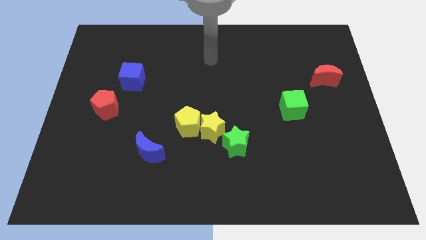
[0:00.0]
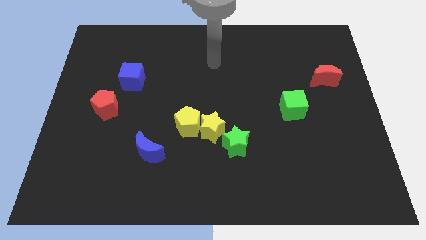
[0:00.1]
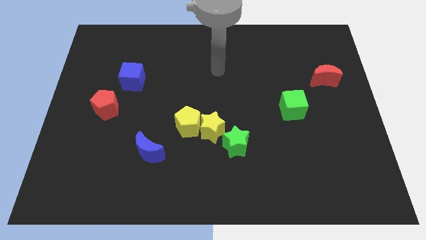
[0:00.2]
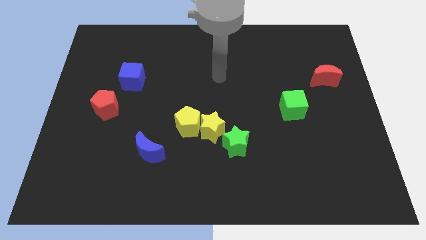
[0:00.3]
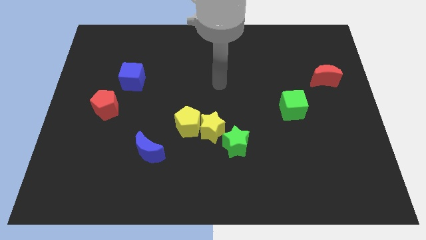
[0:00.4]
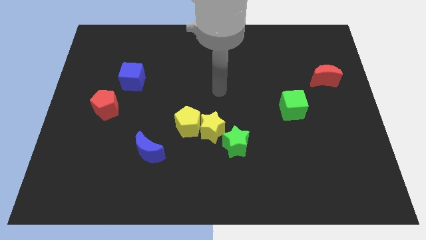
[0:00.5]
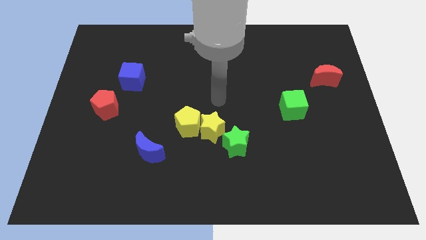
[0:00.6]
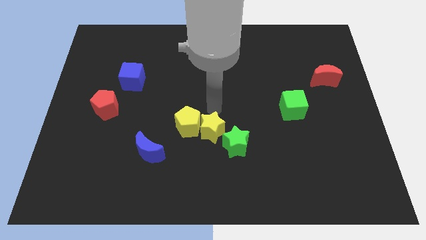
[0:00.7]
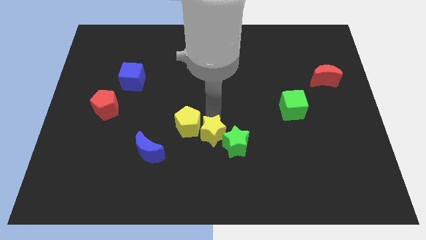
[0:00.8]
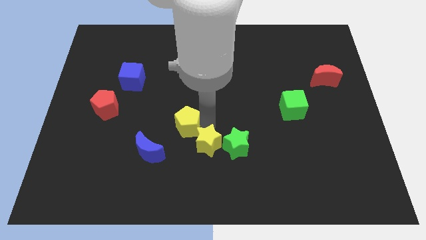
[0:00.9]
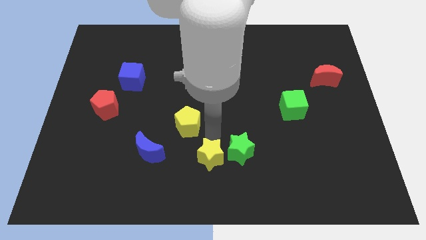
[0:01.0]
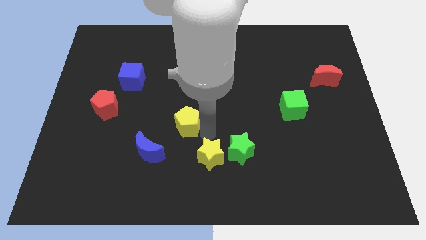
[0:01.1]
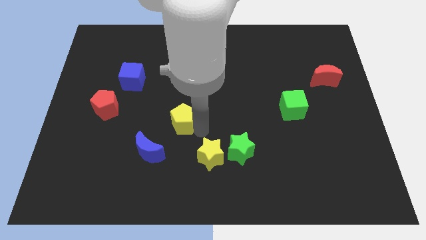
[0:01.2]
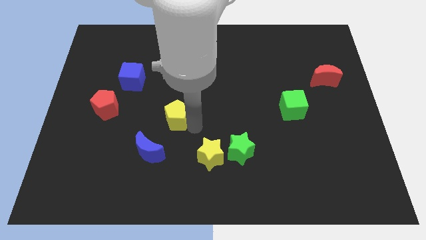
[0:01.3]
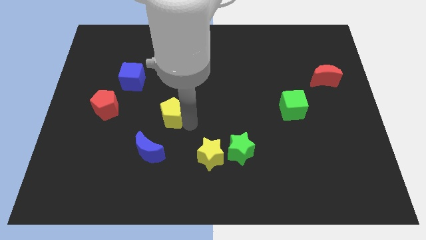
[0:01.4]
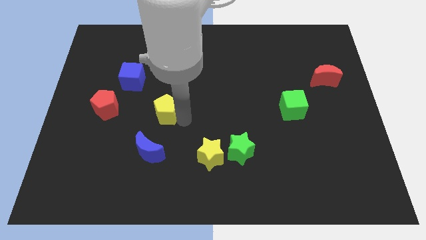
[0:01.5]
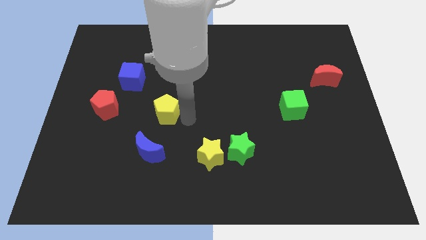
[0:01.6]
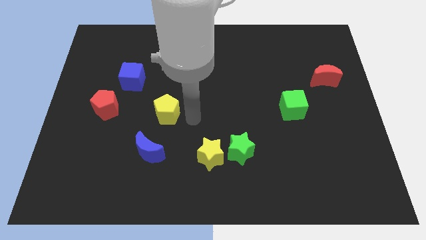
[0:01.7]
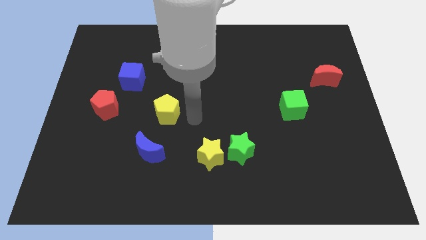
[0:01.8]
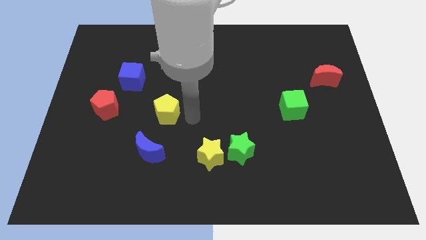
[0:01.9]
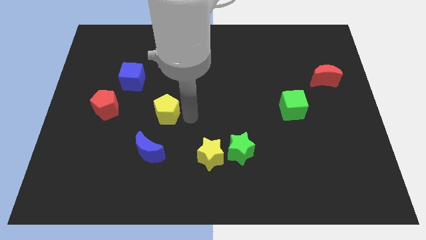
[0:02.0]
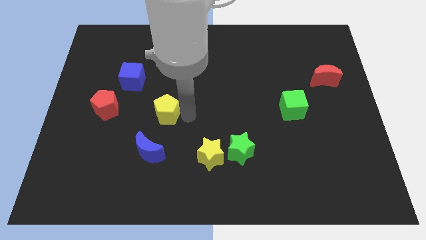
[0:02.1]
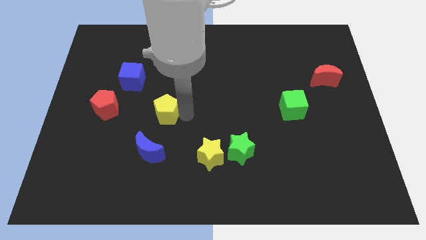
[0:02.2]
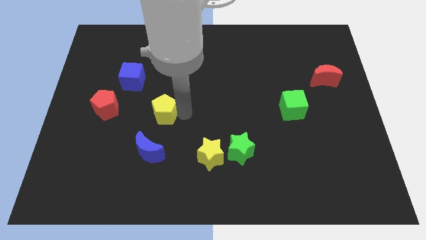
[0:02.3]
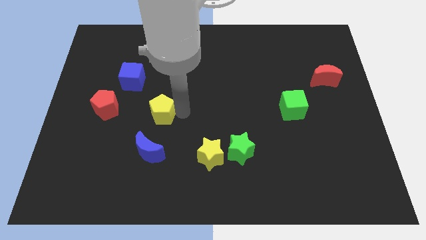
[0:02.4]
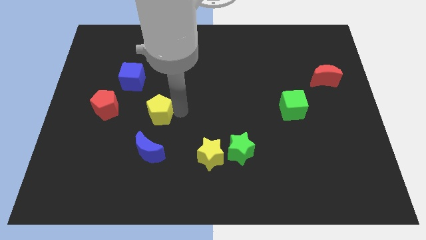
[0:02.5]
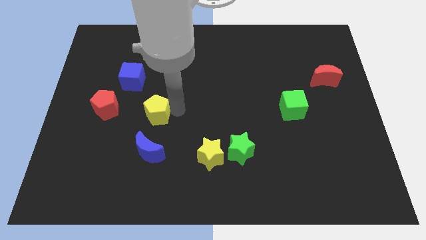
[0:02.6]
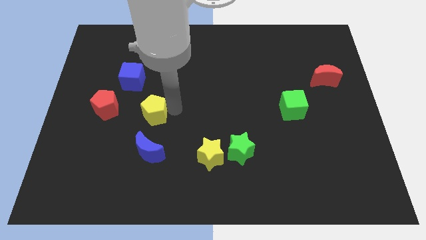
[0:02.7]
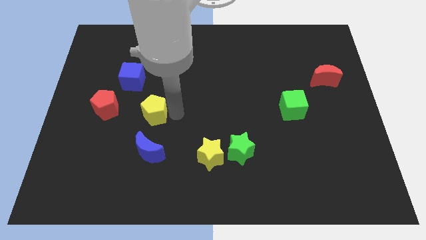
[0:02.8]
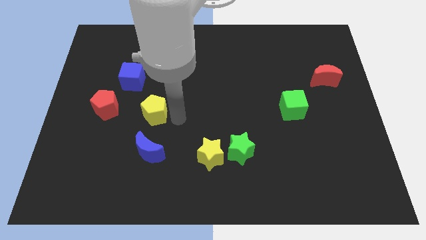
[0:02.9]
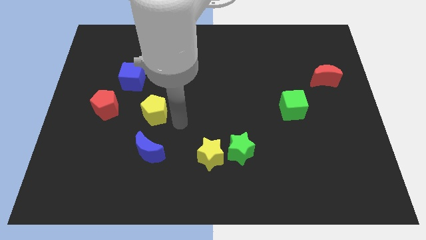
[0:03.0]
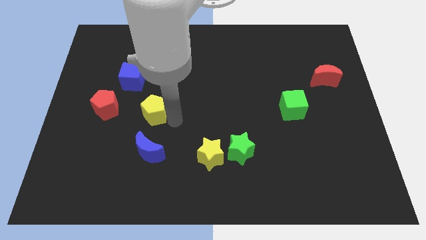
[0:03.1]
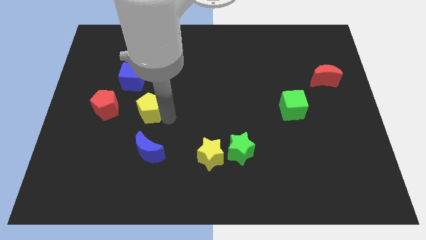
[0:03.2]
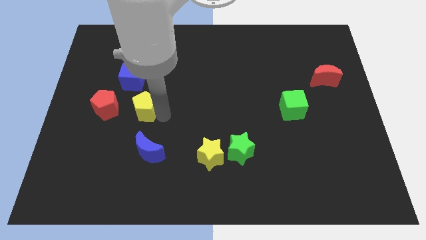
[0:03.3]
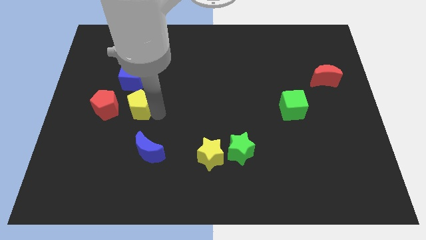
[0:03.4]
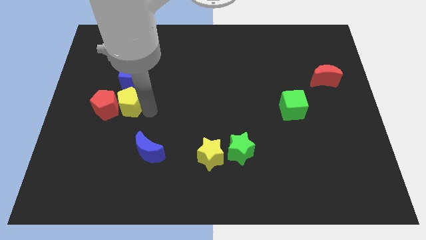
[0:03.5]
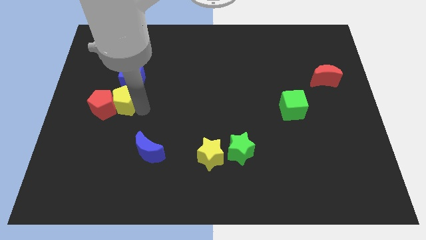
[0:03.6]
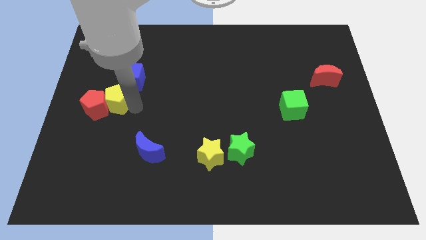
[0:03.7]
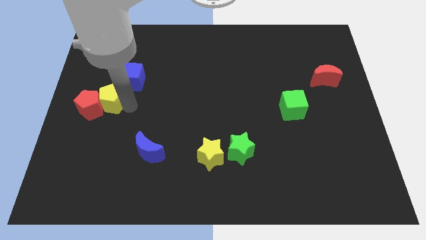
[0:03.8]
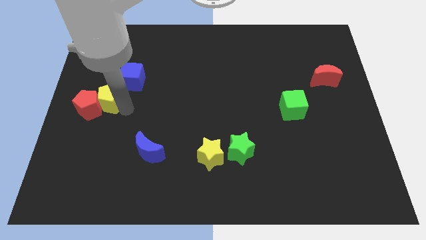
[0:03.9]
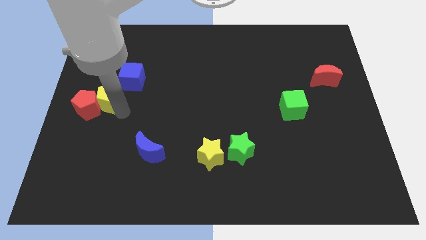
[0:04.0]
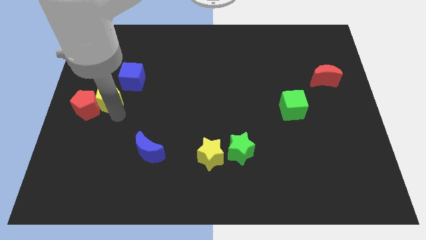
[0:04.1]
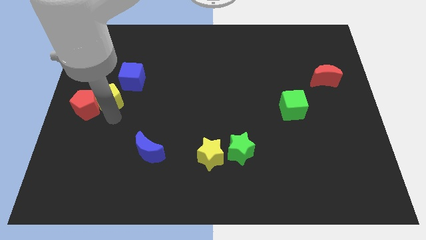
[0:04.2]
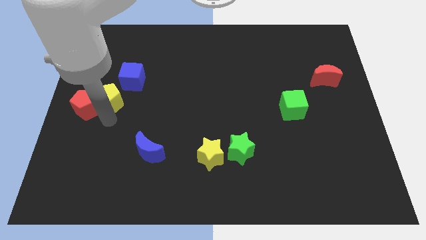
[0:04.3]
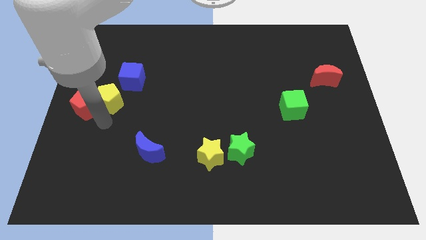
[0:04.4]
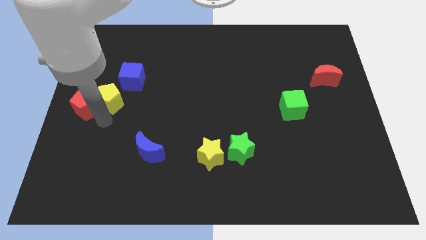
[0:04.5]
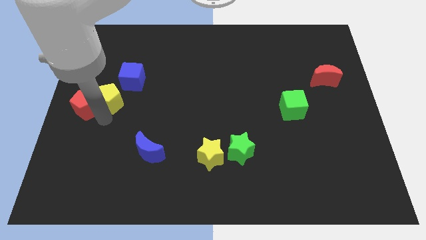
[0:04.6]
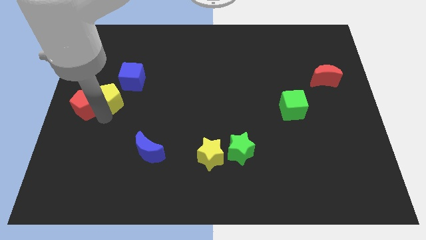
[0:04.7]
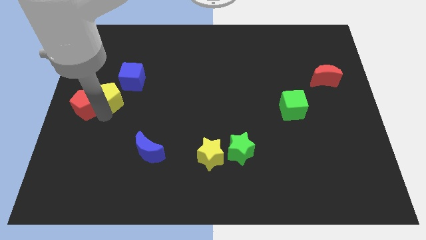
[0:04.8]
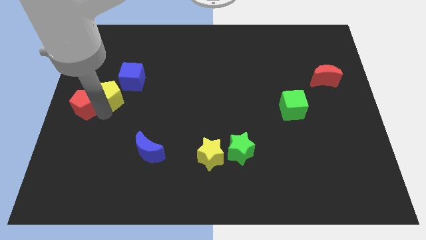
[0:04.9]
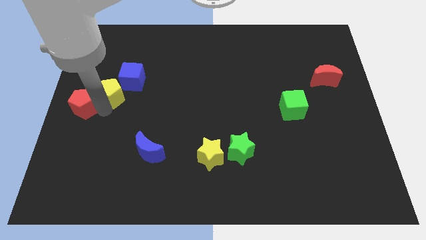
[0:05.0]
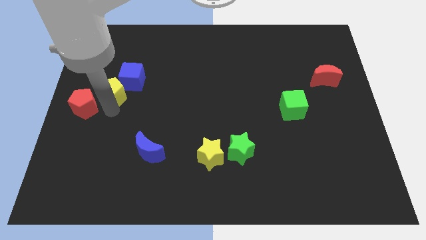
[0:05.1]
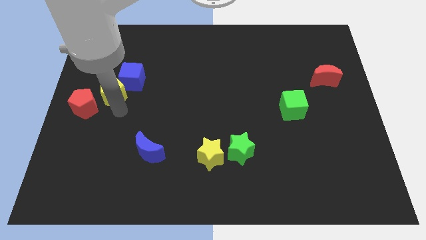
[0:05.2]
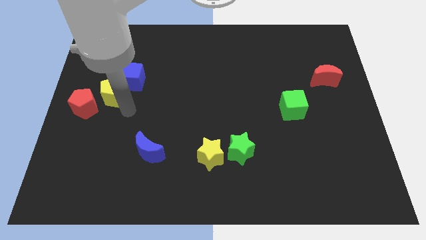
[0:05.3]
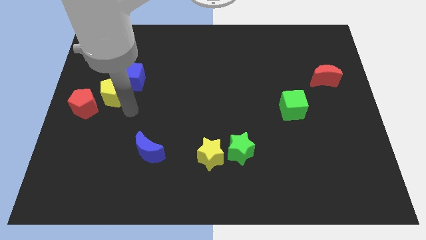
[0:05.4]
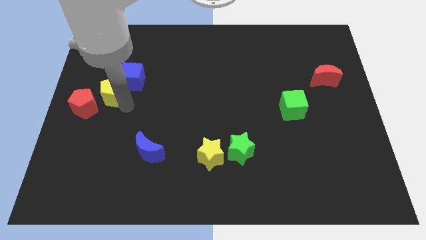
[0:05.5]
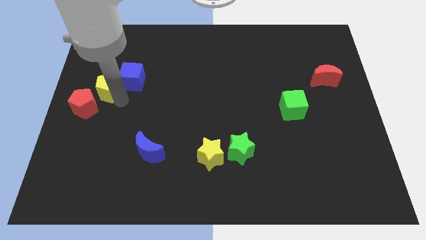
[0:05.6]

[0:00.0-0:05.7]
put the yellow pentagon to the top side of the red pentagon

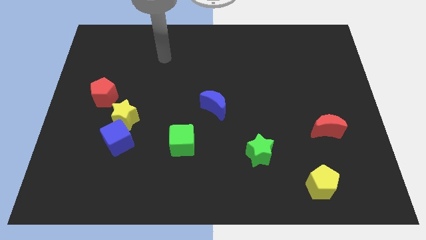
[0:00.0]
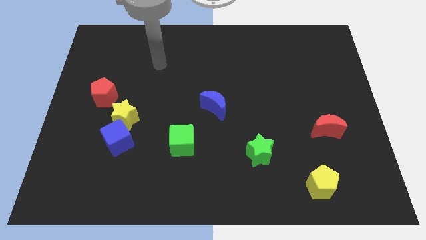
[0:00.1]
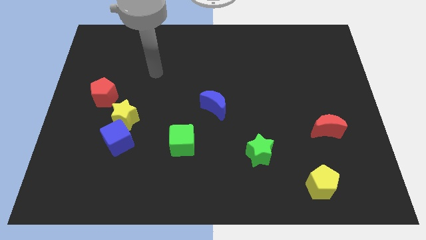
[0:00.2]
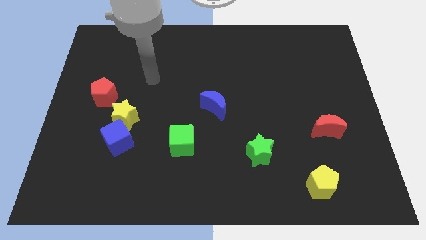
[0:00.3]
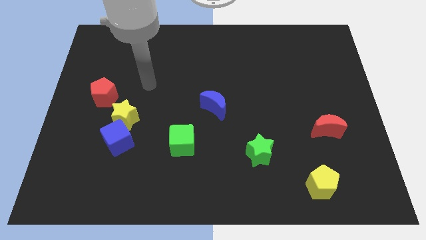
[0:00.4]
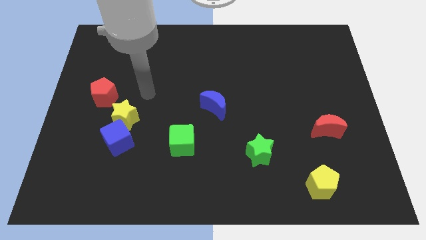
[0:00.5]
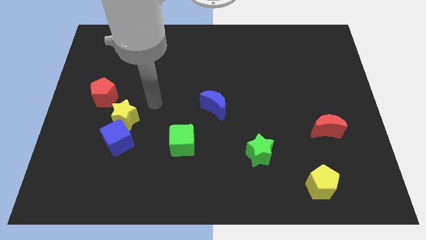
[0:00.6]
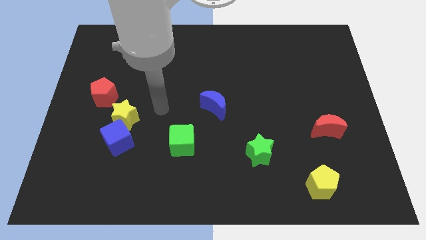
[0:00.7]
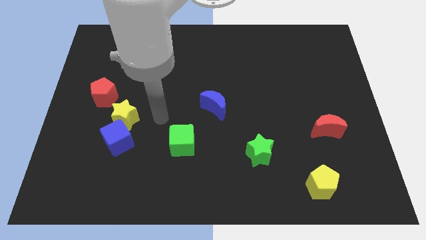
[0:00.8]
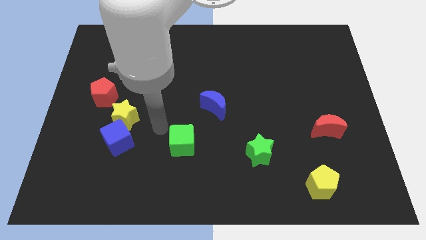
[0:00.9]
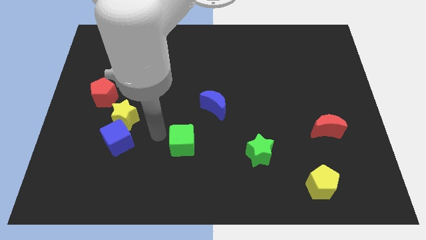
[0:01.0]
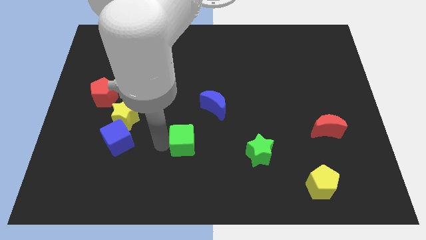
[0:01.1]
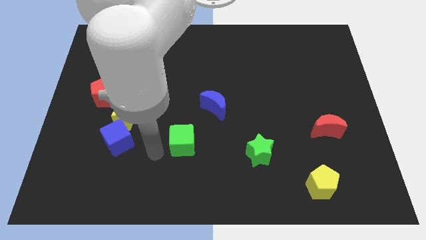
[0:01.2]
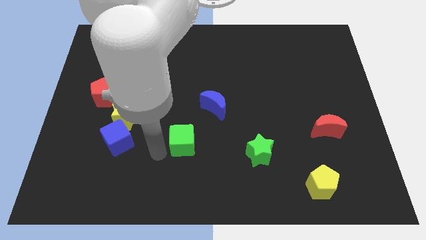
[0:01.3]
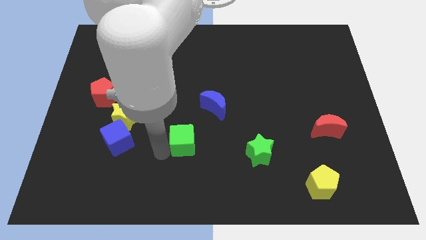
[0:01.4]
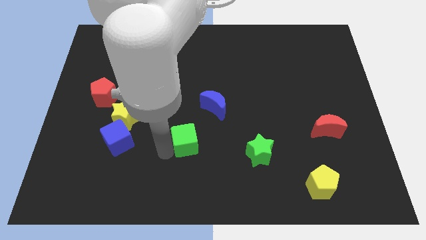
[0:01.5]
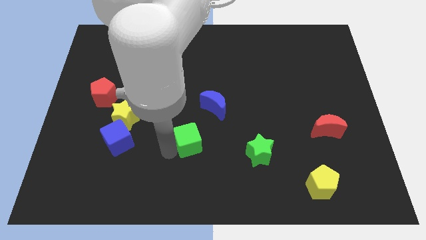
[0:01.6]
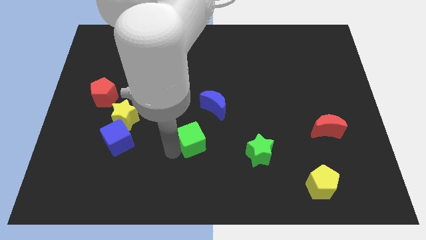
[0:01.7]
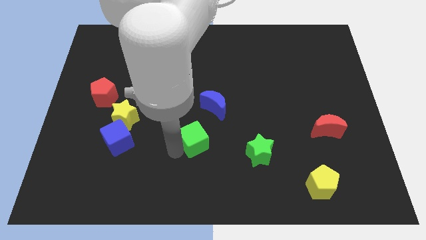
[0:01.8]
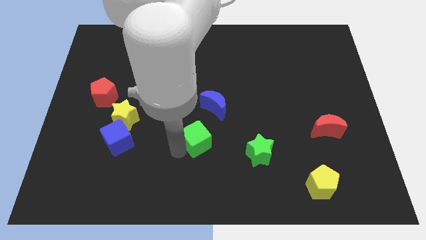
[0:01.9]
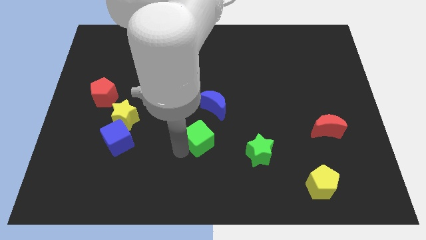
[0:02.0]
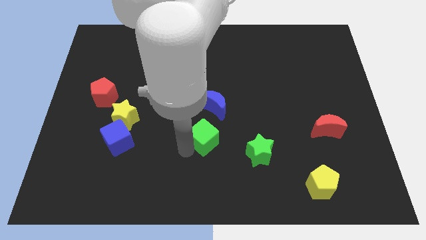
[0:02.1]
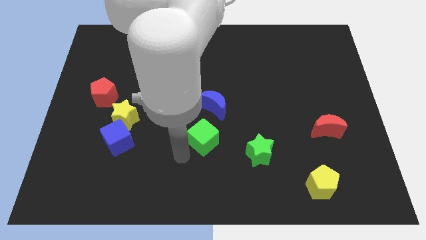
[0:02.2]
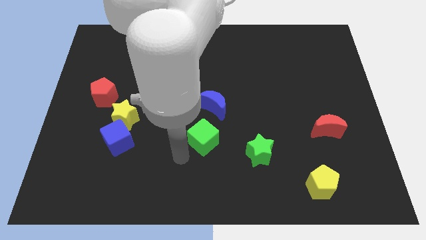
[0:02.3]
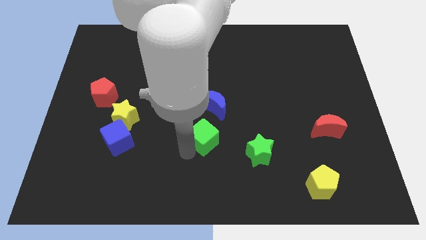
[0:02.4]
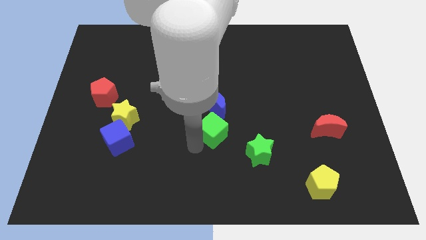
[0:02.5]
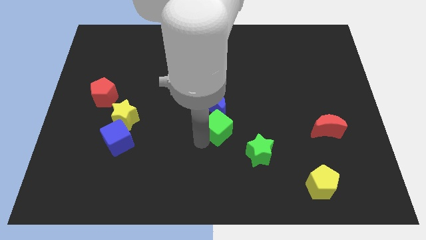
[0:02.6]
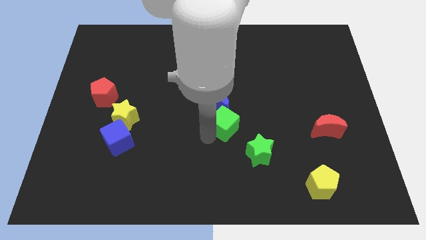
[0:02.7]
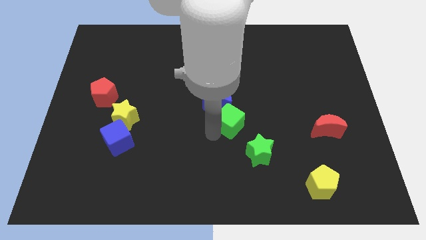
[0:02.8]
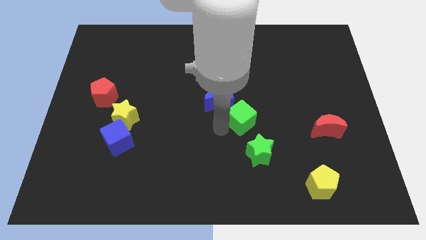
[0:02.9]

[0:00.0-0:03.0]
put the green cube to the right of the blue moon
